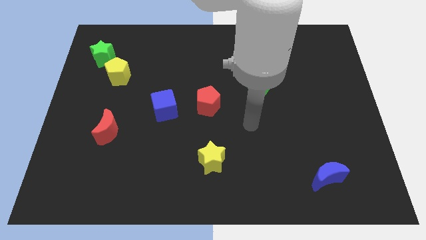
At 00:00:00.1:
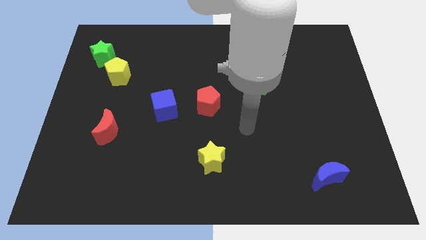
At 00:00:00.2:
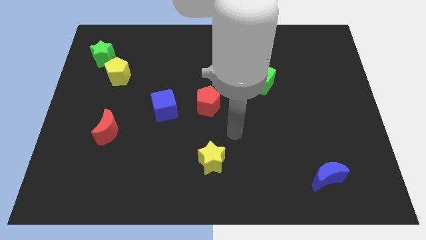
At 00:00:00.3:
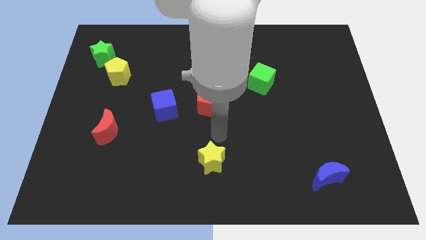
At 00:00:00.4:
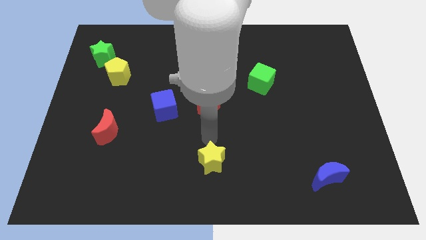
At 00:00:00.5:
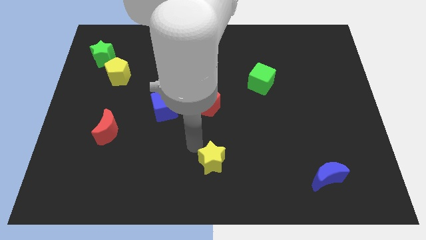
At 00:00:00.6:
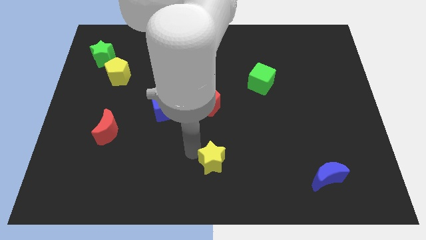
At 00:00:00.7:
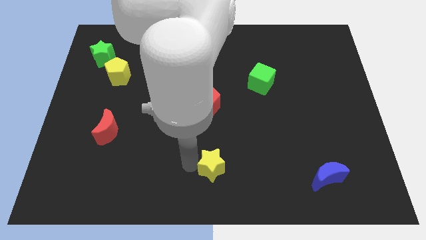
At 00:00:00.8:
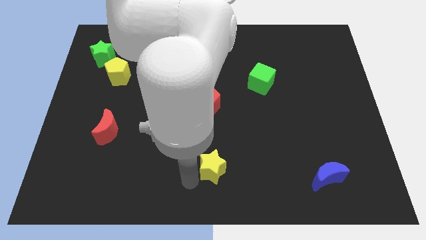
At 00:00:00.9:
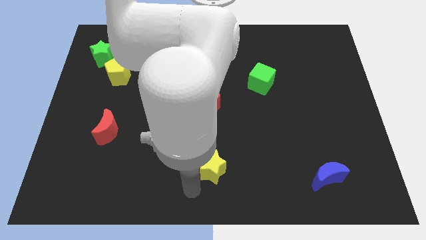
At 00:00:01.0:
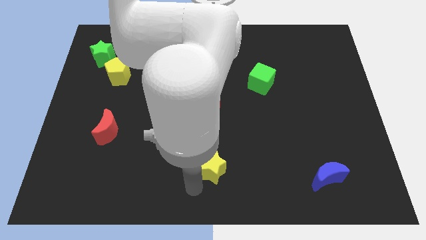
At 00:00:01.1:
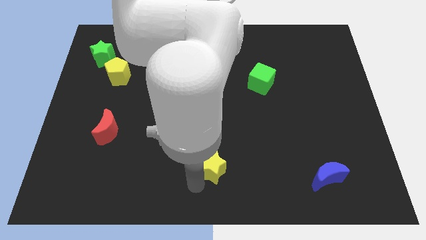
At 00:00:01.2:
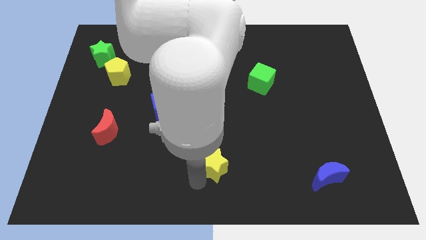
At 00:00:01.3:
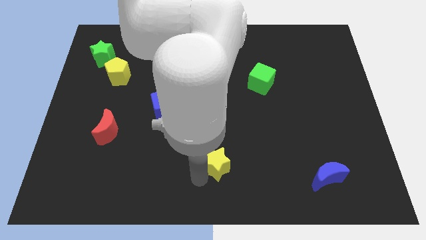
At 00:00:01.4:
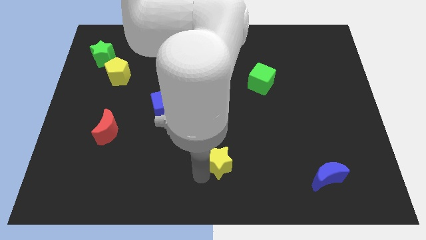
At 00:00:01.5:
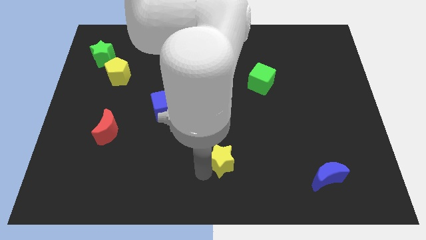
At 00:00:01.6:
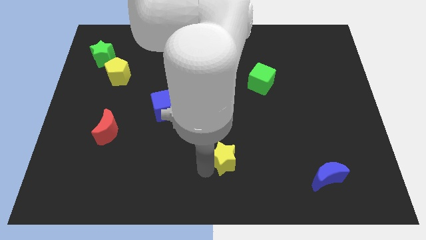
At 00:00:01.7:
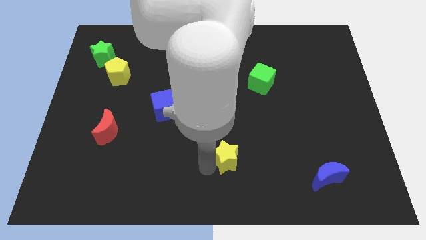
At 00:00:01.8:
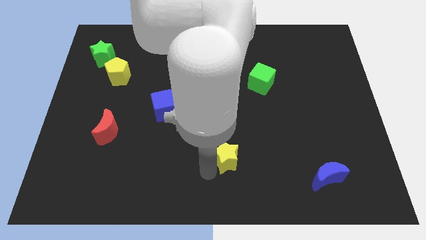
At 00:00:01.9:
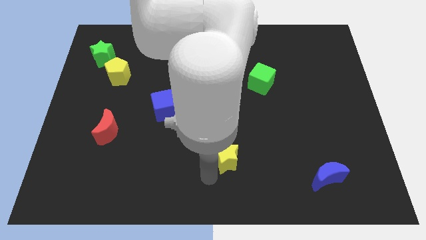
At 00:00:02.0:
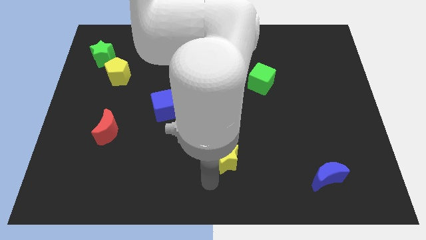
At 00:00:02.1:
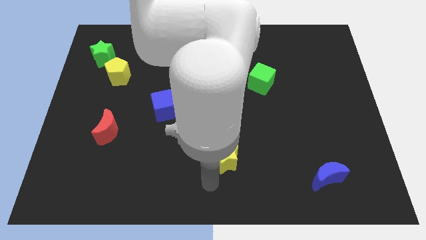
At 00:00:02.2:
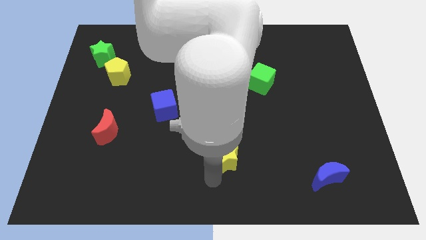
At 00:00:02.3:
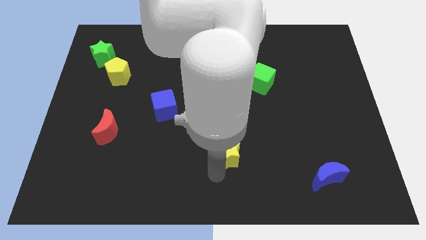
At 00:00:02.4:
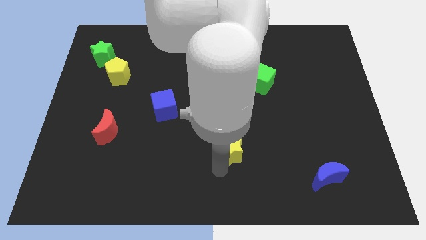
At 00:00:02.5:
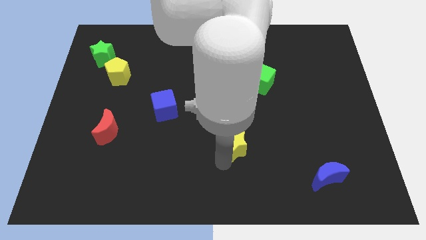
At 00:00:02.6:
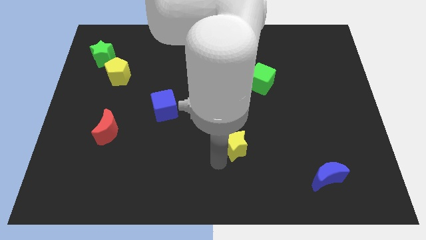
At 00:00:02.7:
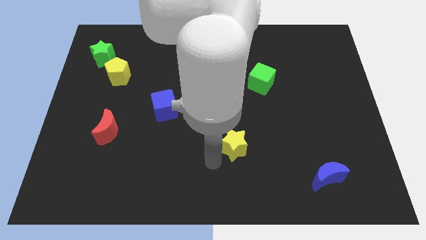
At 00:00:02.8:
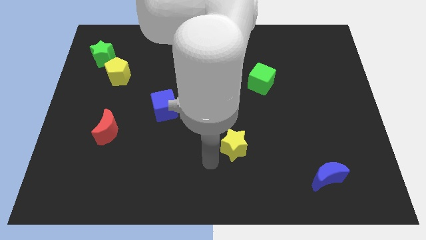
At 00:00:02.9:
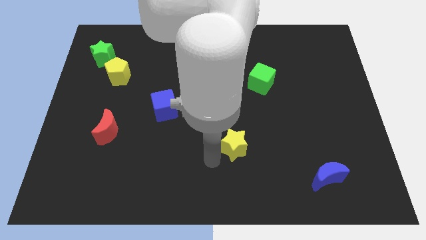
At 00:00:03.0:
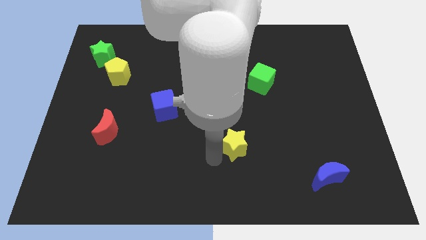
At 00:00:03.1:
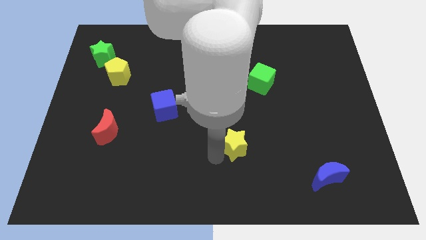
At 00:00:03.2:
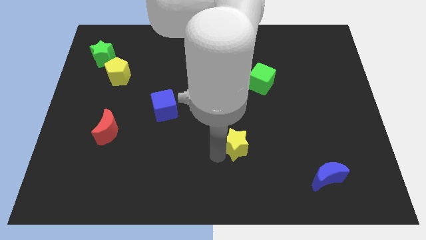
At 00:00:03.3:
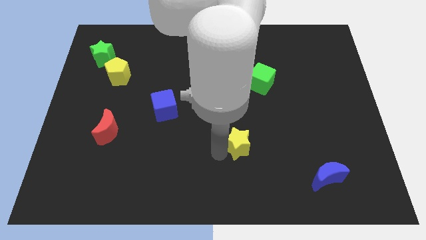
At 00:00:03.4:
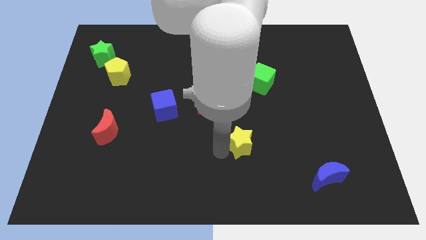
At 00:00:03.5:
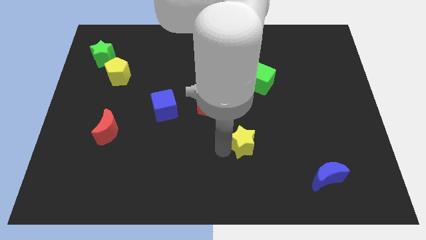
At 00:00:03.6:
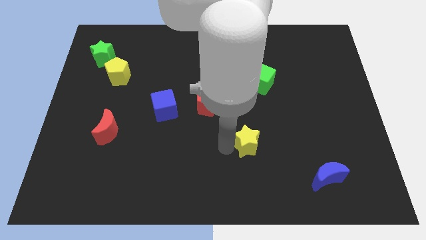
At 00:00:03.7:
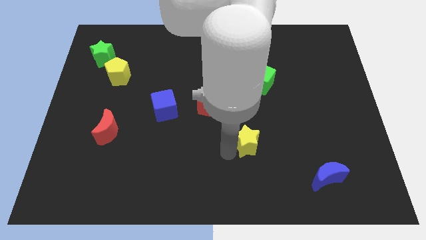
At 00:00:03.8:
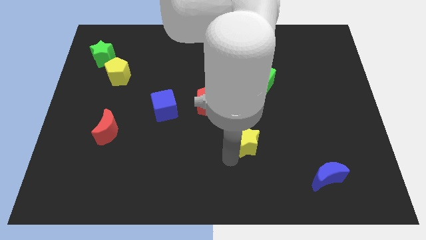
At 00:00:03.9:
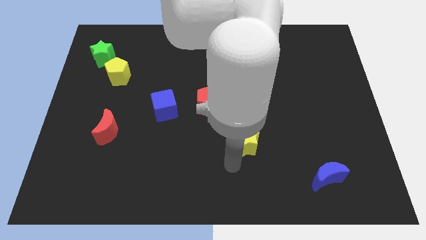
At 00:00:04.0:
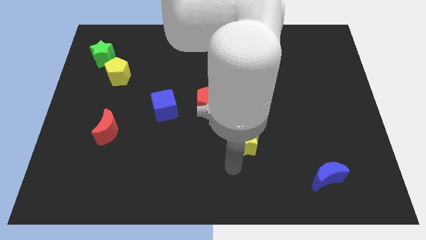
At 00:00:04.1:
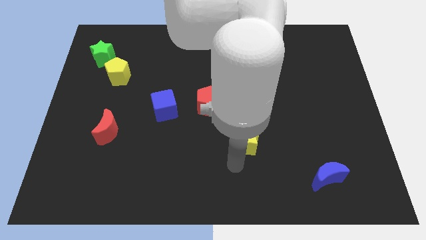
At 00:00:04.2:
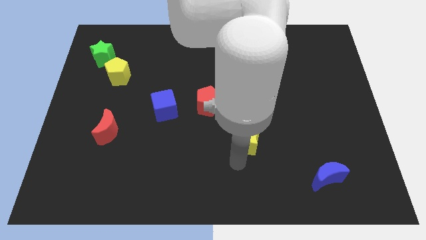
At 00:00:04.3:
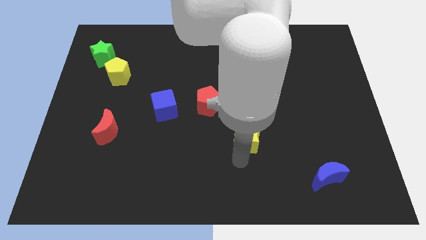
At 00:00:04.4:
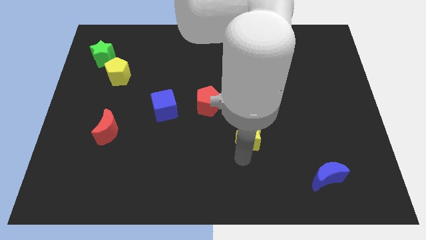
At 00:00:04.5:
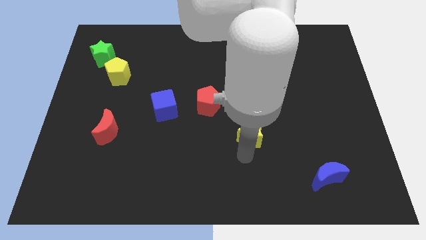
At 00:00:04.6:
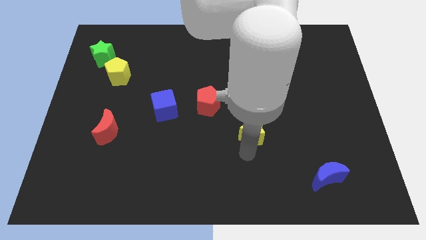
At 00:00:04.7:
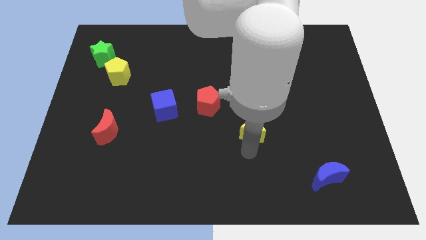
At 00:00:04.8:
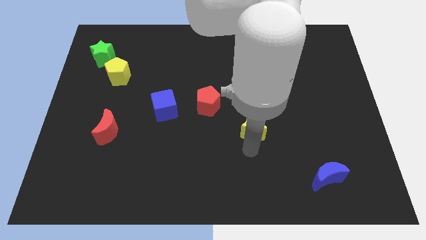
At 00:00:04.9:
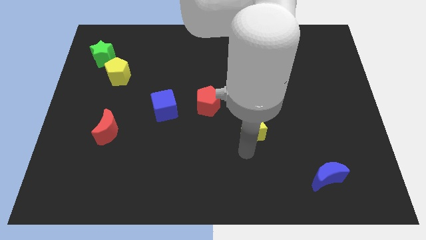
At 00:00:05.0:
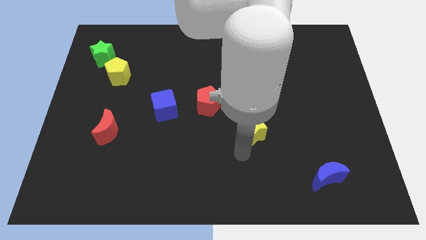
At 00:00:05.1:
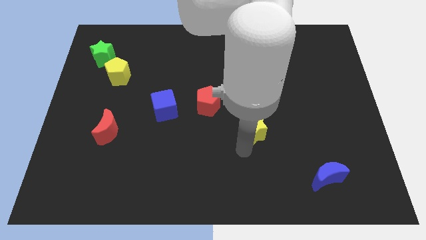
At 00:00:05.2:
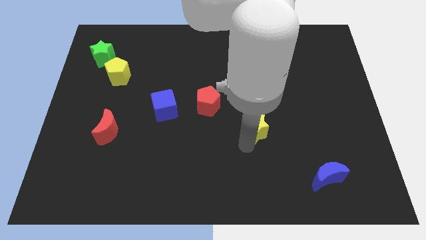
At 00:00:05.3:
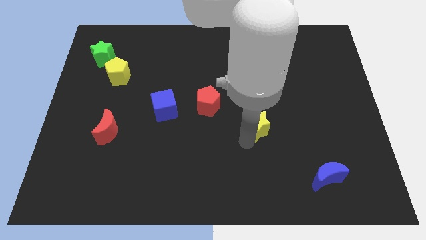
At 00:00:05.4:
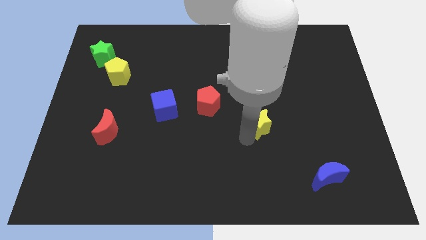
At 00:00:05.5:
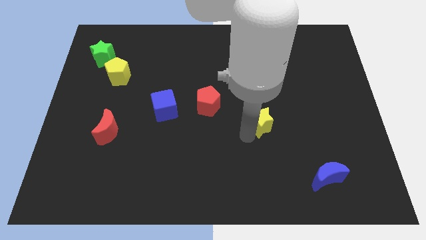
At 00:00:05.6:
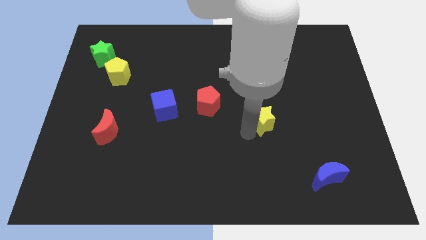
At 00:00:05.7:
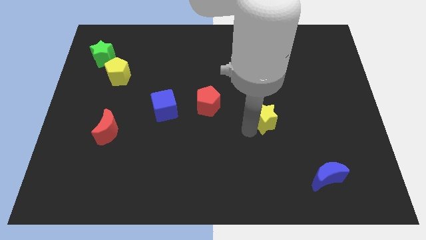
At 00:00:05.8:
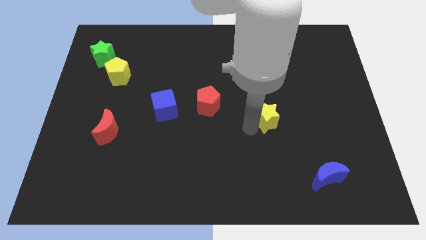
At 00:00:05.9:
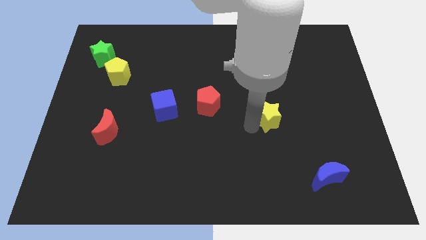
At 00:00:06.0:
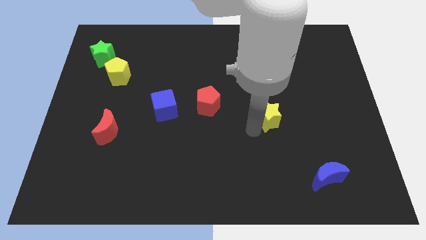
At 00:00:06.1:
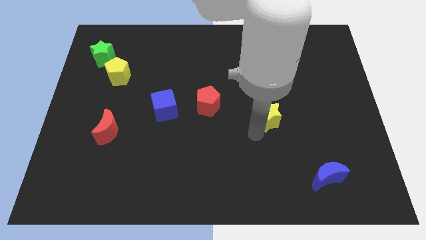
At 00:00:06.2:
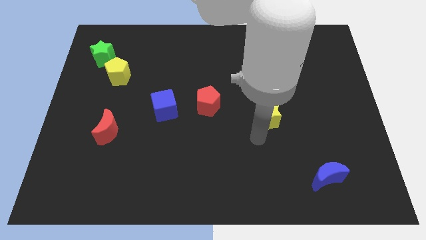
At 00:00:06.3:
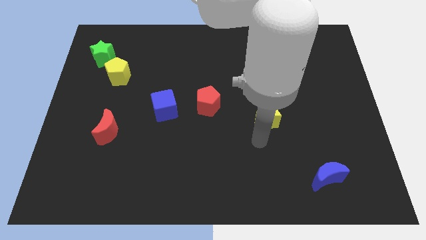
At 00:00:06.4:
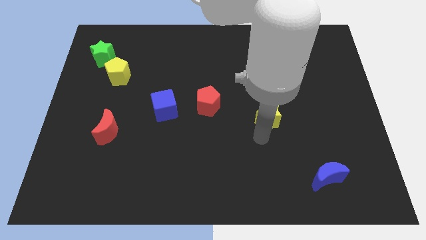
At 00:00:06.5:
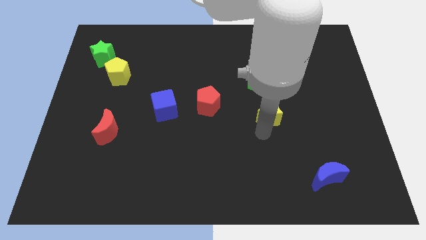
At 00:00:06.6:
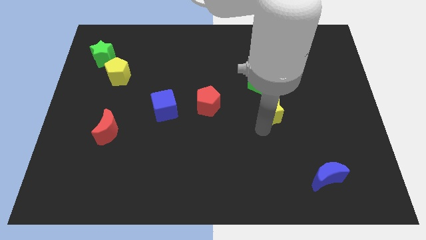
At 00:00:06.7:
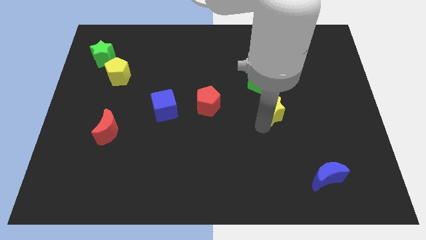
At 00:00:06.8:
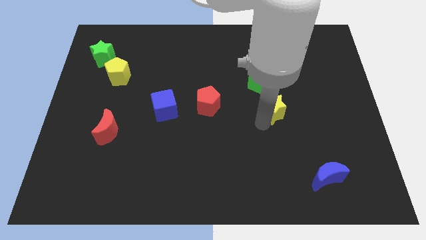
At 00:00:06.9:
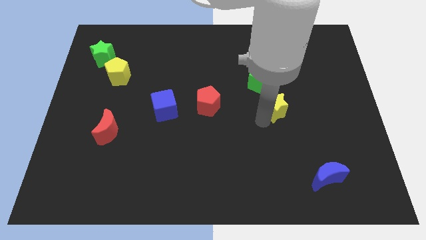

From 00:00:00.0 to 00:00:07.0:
slide the yellow star upwards and then to the right

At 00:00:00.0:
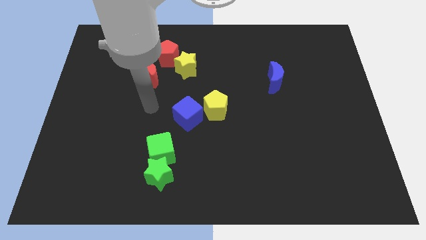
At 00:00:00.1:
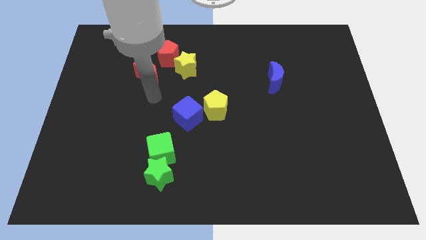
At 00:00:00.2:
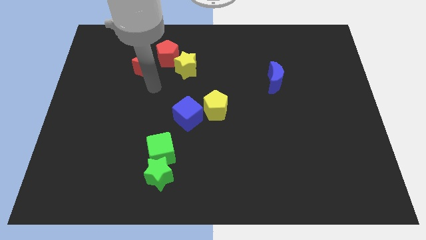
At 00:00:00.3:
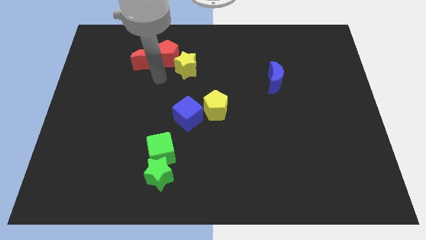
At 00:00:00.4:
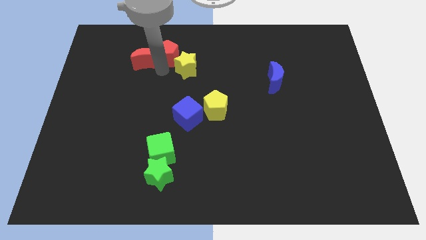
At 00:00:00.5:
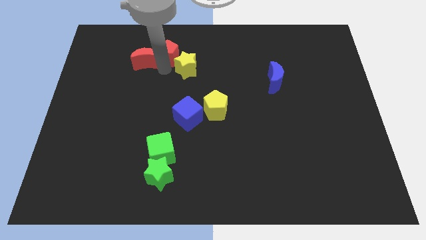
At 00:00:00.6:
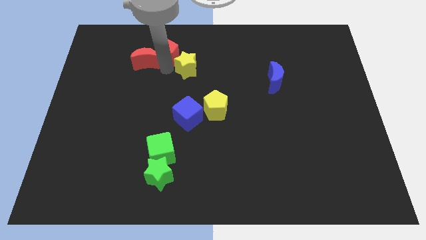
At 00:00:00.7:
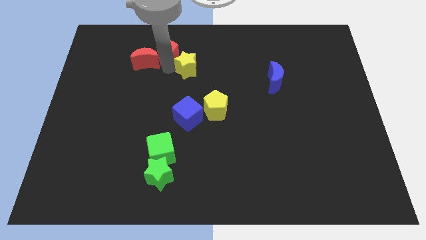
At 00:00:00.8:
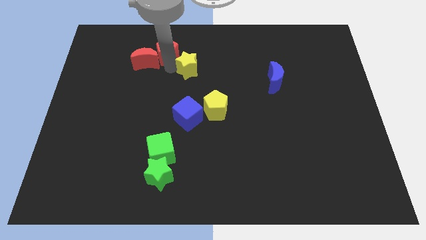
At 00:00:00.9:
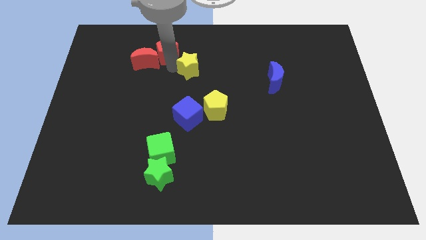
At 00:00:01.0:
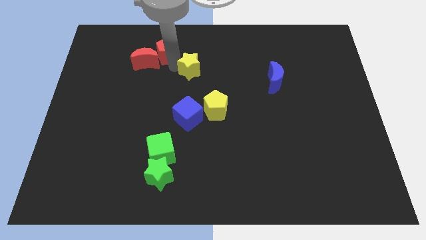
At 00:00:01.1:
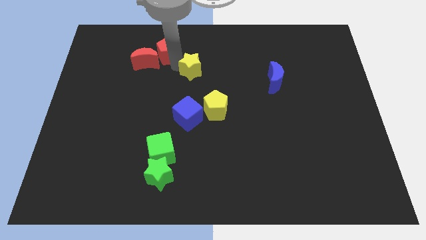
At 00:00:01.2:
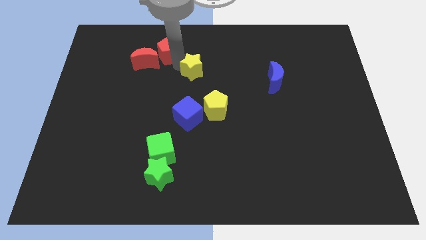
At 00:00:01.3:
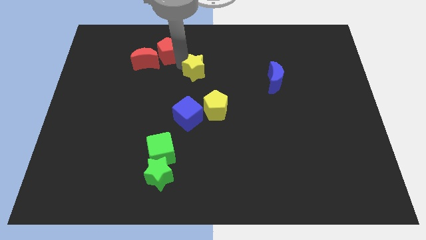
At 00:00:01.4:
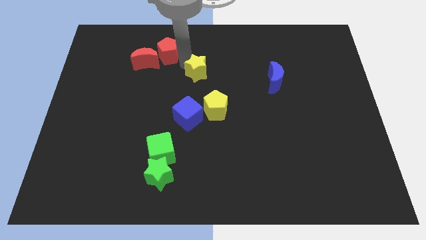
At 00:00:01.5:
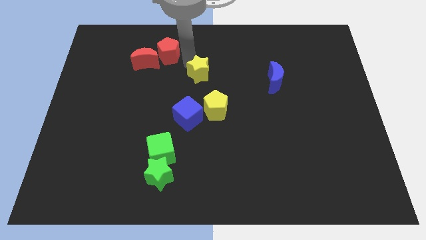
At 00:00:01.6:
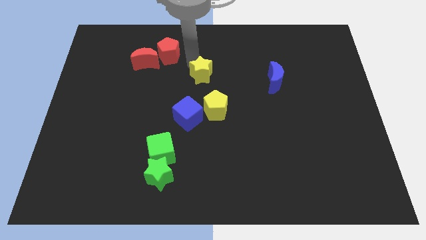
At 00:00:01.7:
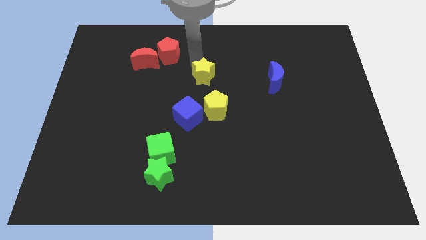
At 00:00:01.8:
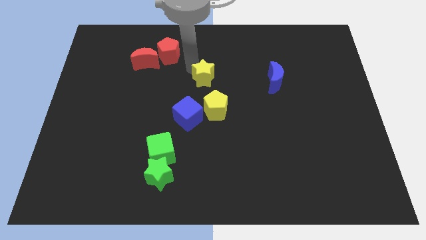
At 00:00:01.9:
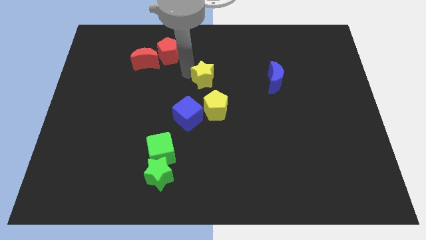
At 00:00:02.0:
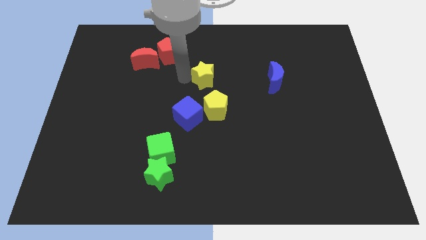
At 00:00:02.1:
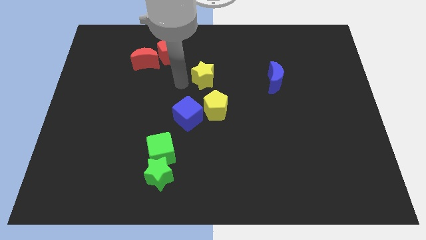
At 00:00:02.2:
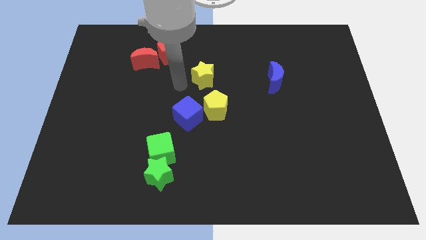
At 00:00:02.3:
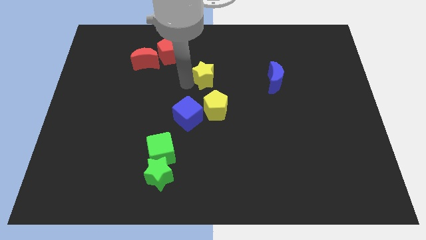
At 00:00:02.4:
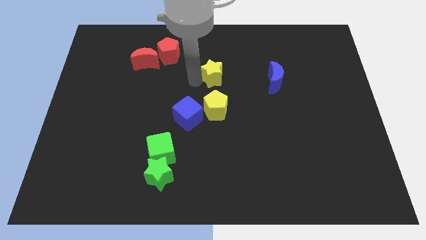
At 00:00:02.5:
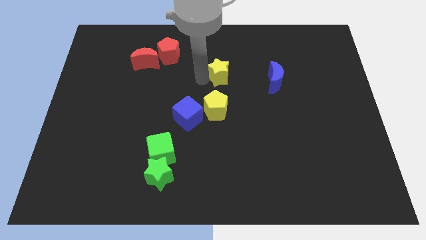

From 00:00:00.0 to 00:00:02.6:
slightly push the yellow star to the right
